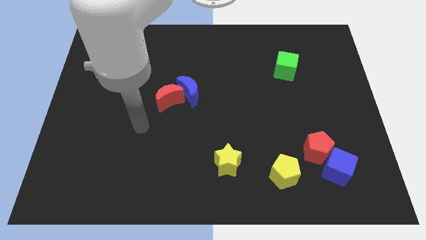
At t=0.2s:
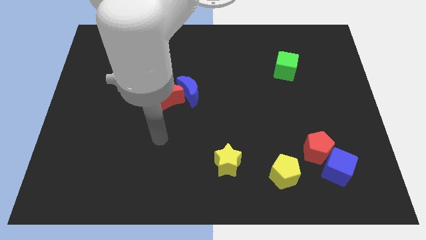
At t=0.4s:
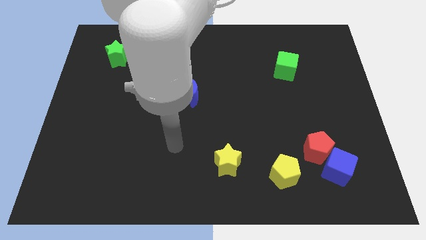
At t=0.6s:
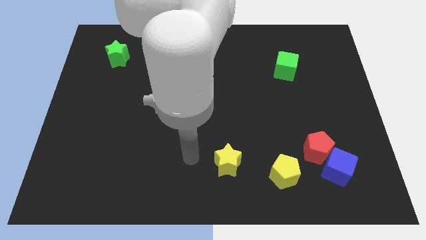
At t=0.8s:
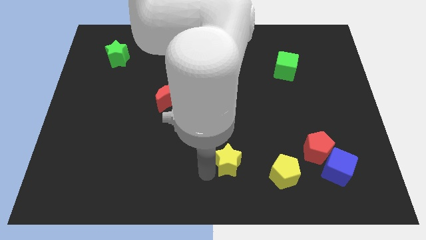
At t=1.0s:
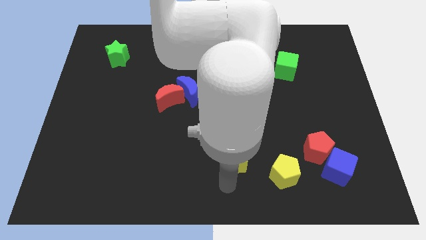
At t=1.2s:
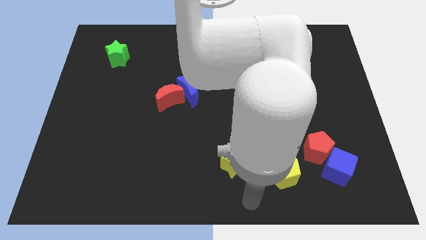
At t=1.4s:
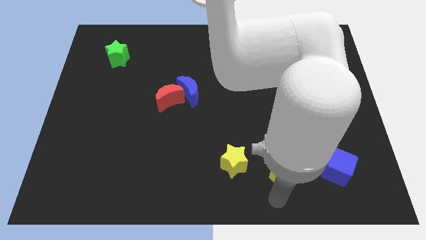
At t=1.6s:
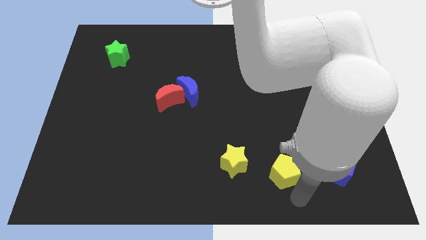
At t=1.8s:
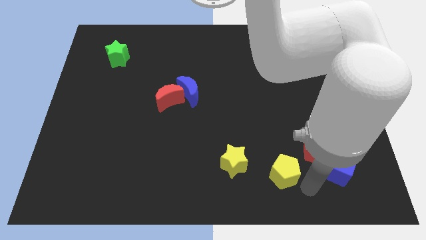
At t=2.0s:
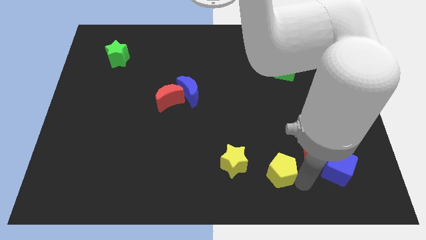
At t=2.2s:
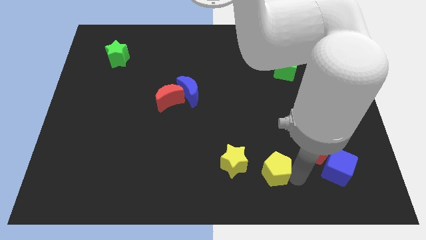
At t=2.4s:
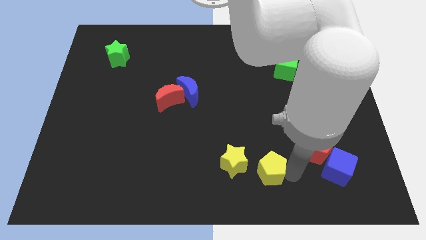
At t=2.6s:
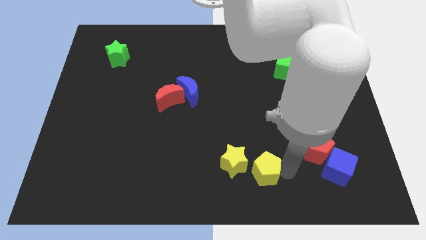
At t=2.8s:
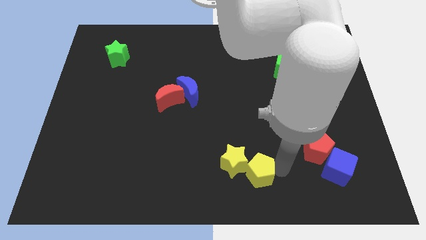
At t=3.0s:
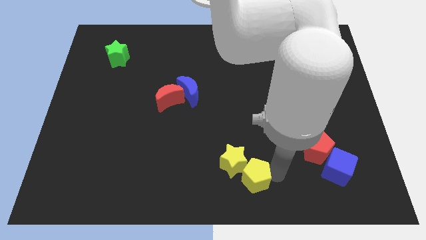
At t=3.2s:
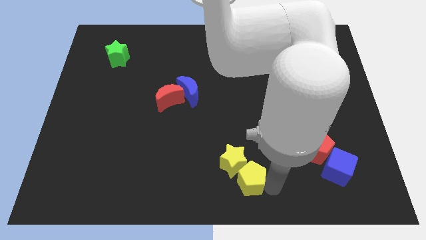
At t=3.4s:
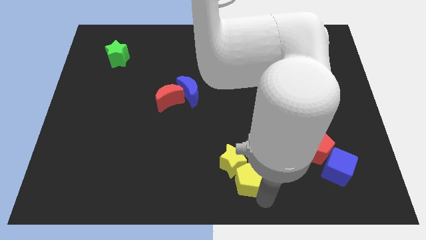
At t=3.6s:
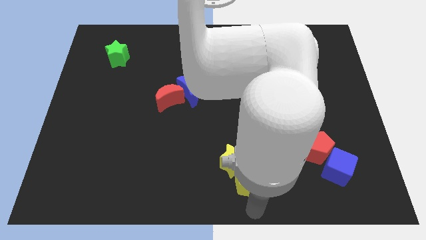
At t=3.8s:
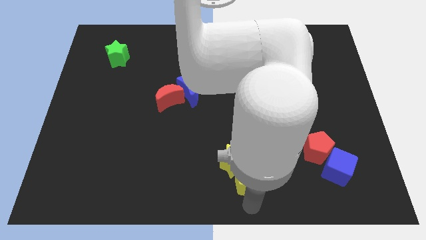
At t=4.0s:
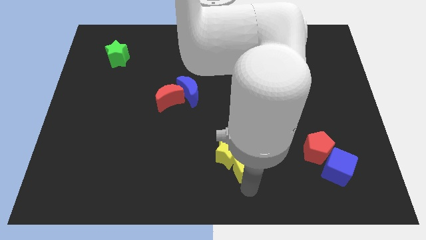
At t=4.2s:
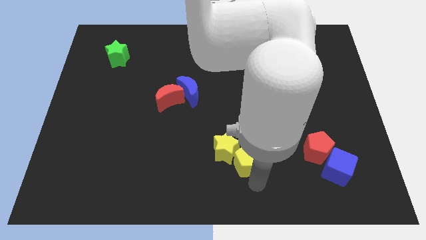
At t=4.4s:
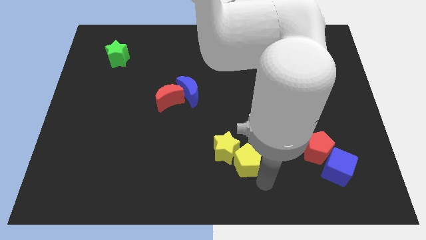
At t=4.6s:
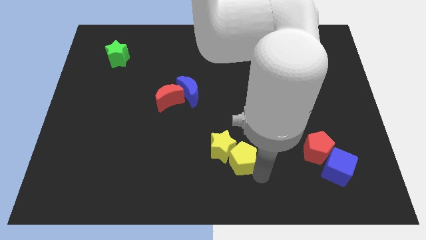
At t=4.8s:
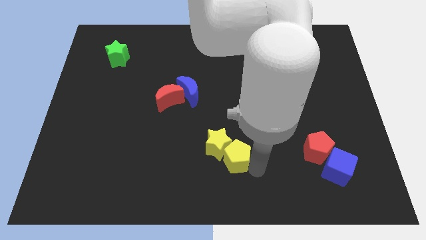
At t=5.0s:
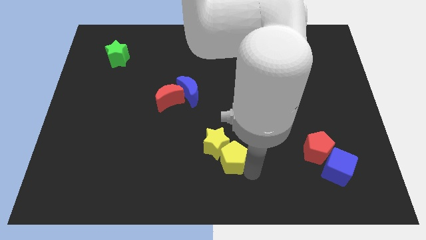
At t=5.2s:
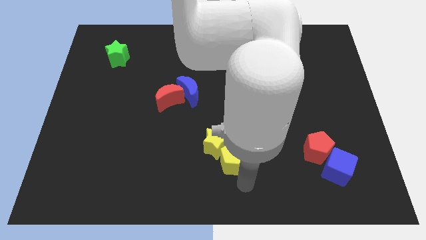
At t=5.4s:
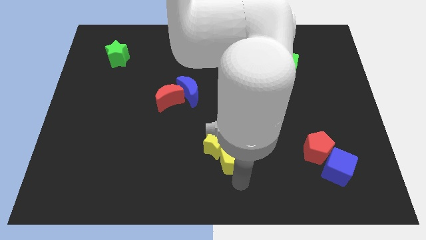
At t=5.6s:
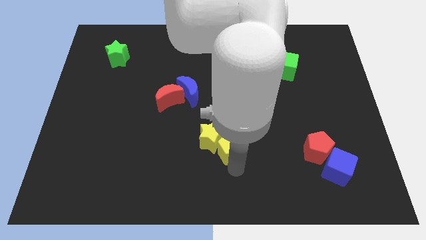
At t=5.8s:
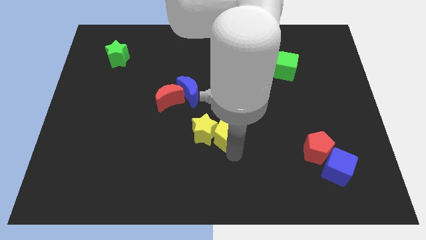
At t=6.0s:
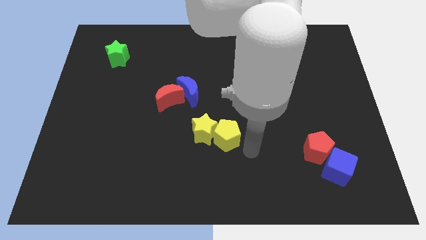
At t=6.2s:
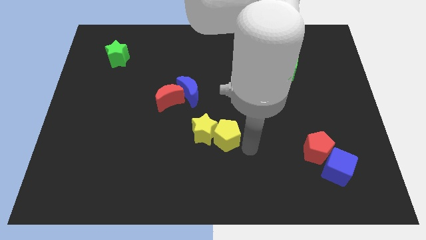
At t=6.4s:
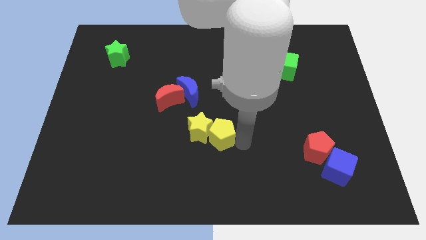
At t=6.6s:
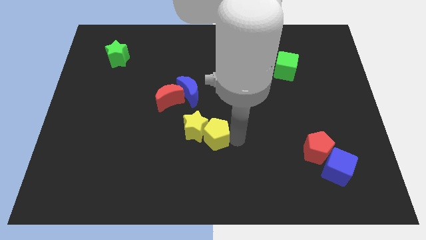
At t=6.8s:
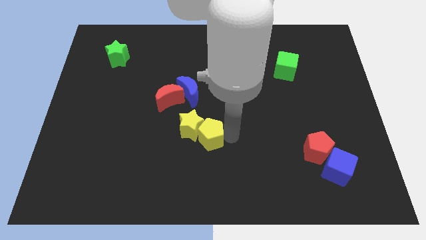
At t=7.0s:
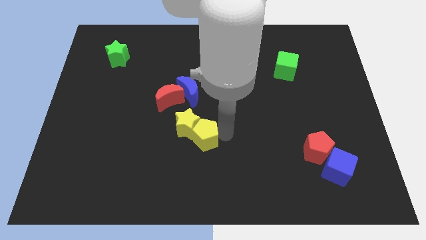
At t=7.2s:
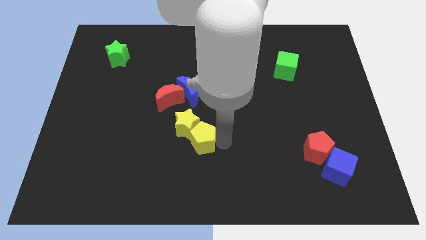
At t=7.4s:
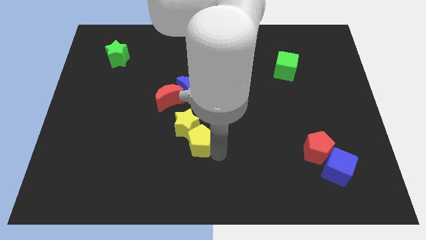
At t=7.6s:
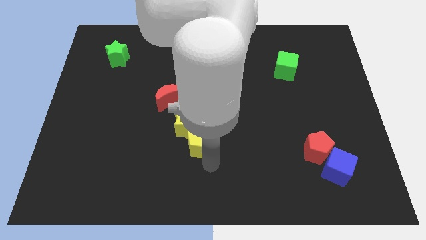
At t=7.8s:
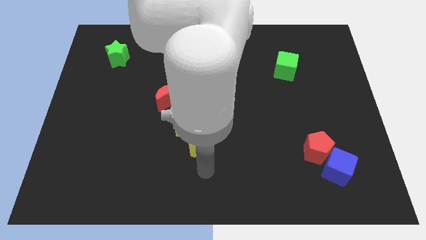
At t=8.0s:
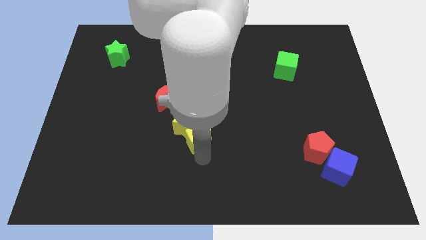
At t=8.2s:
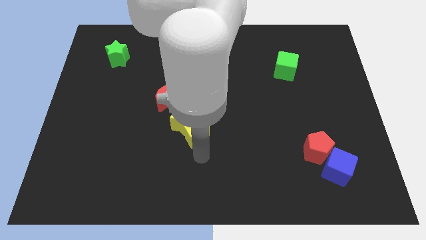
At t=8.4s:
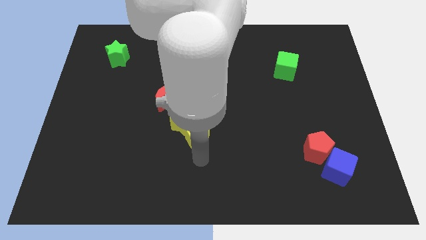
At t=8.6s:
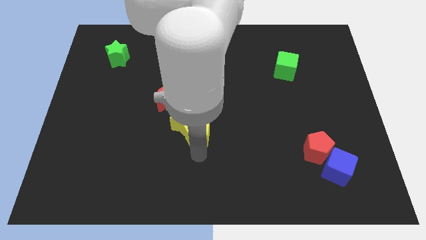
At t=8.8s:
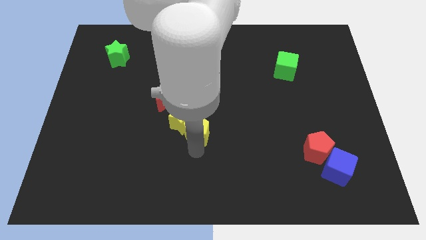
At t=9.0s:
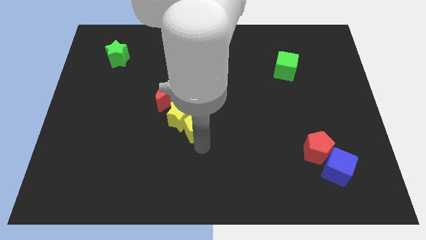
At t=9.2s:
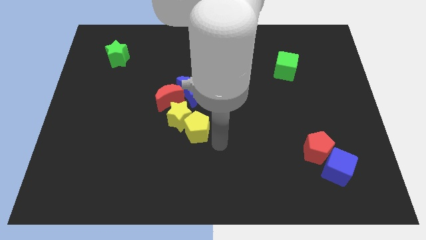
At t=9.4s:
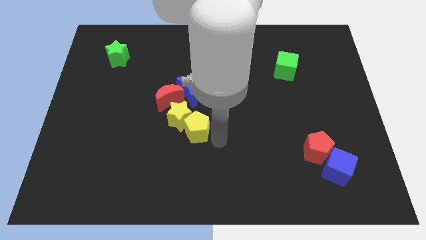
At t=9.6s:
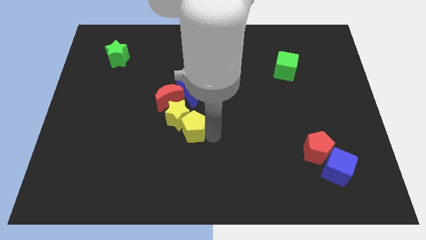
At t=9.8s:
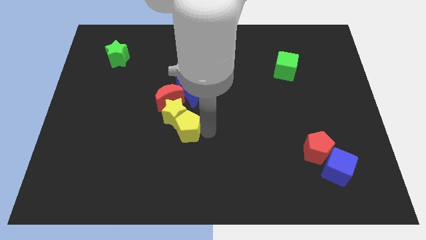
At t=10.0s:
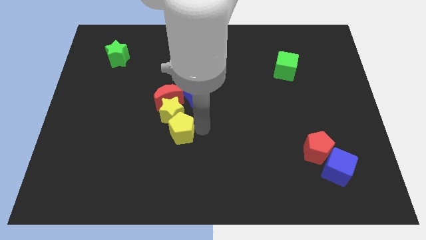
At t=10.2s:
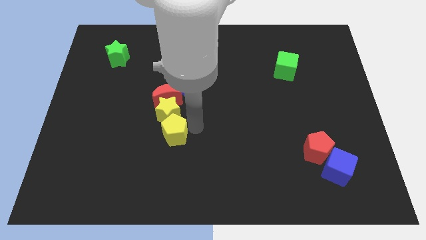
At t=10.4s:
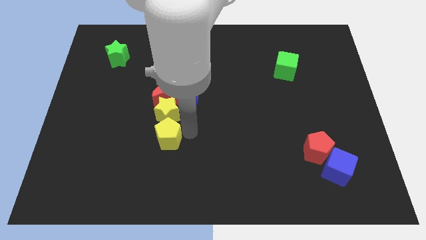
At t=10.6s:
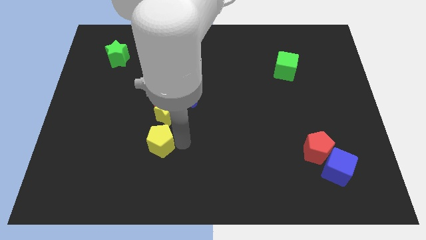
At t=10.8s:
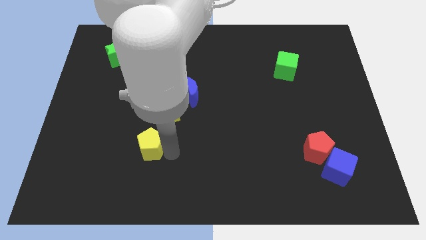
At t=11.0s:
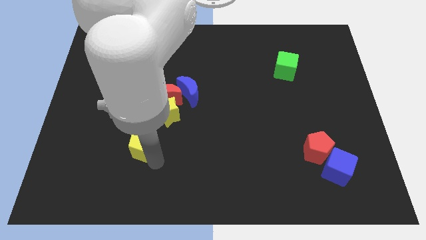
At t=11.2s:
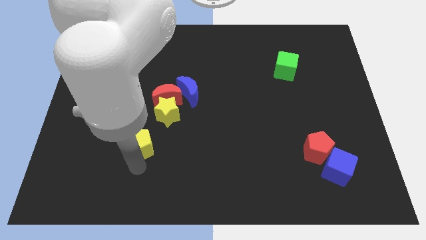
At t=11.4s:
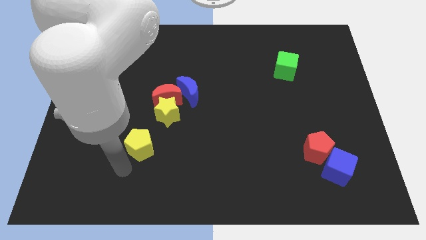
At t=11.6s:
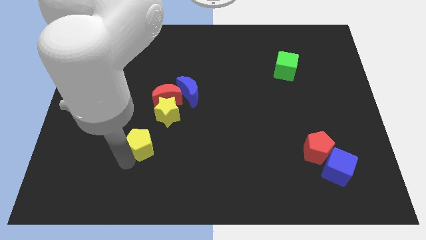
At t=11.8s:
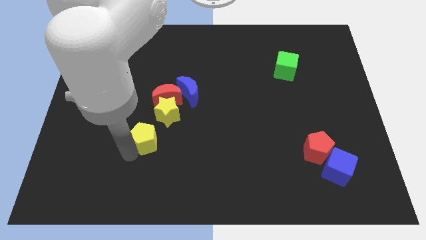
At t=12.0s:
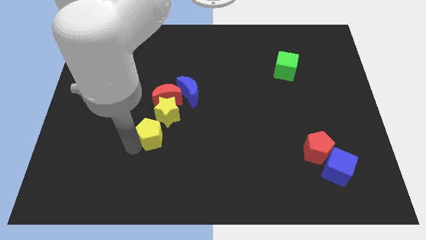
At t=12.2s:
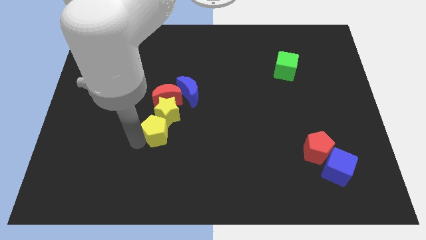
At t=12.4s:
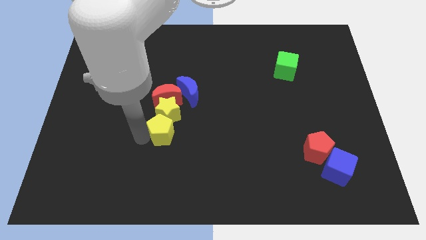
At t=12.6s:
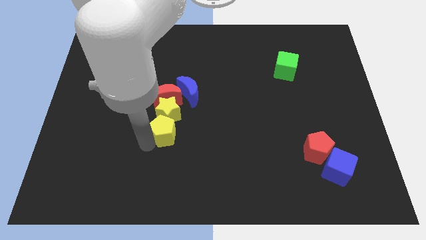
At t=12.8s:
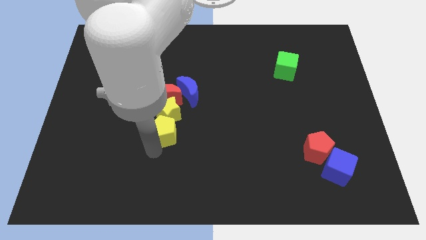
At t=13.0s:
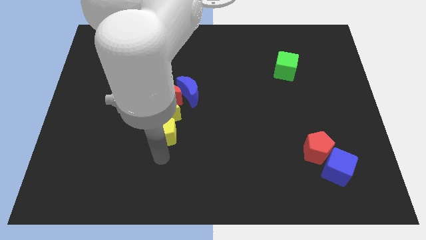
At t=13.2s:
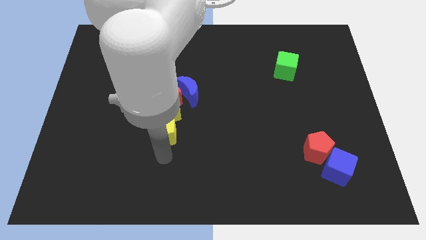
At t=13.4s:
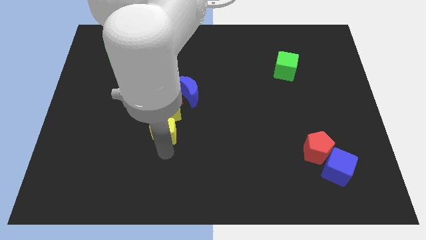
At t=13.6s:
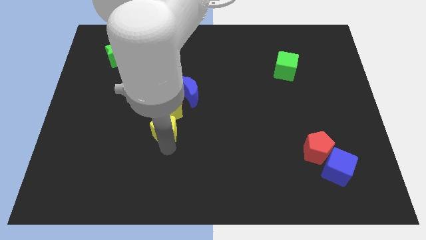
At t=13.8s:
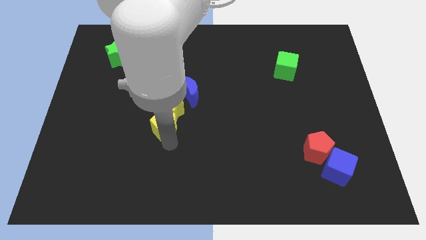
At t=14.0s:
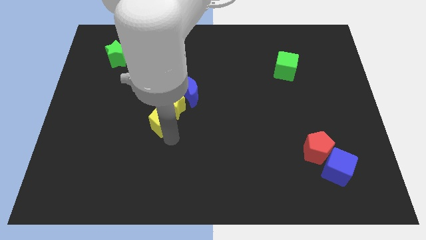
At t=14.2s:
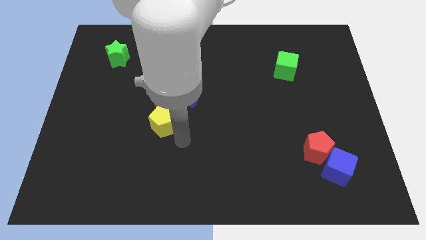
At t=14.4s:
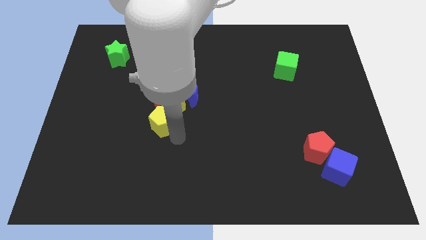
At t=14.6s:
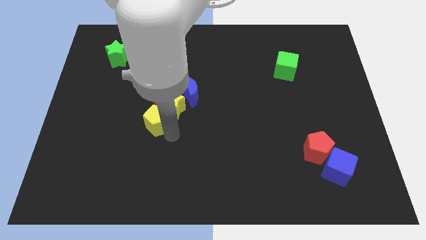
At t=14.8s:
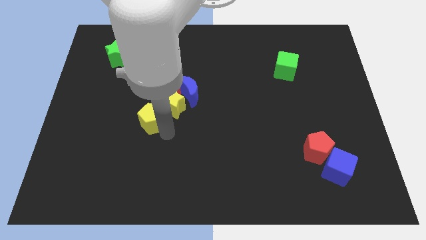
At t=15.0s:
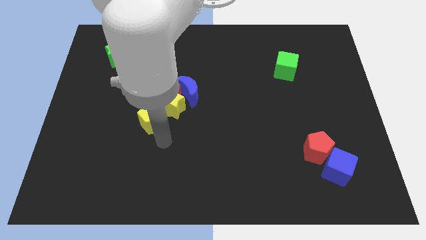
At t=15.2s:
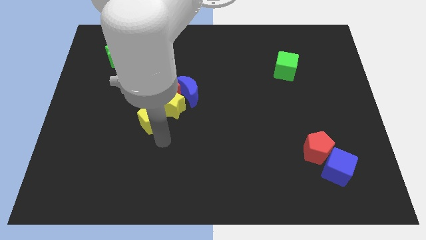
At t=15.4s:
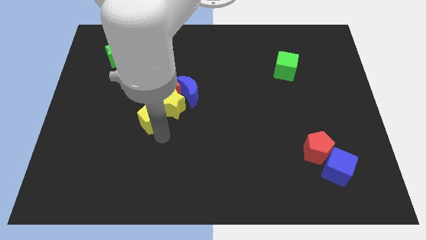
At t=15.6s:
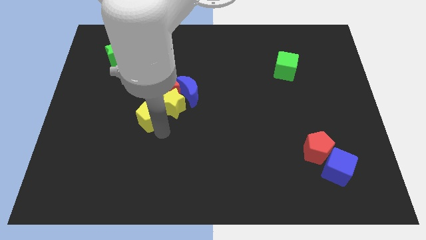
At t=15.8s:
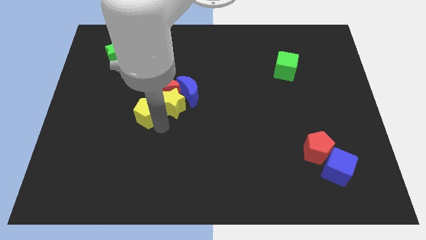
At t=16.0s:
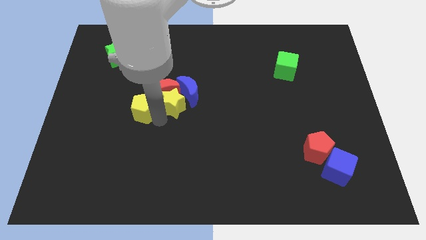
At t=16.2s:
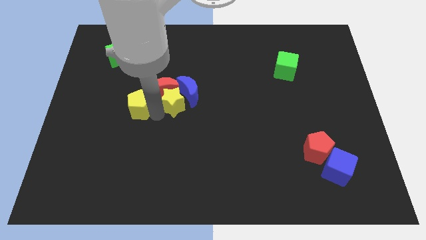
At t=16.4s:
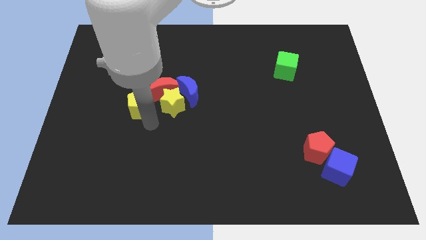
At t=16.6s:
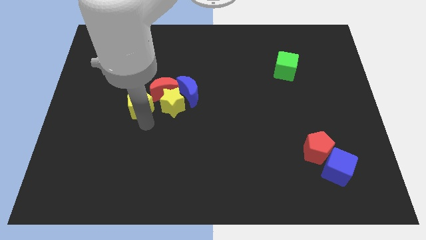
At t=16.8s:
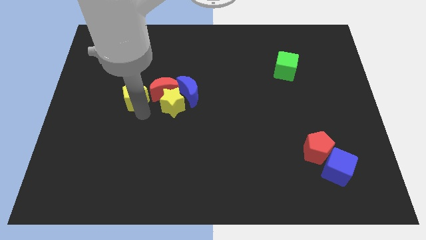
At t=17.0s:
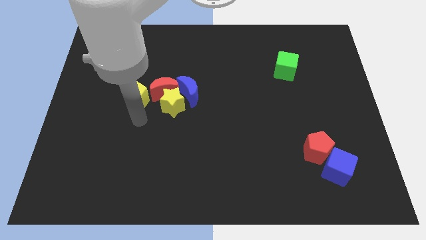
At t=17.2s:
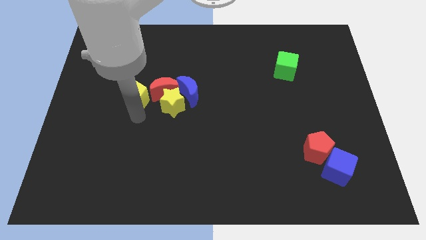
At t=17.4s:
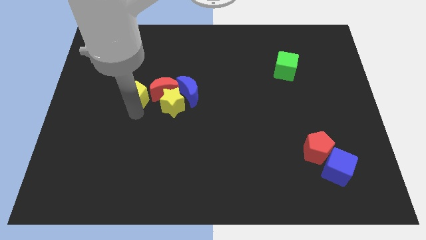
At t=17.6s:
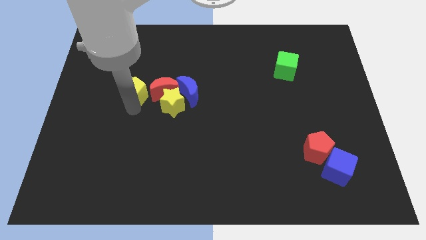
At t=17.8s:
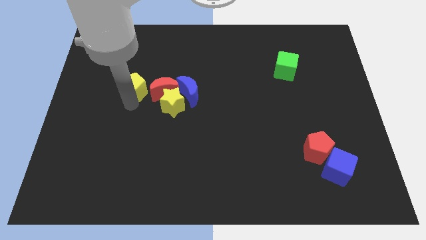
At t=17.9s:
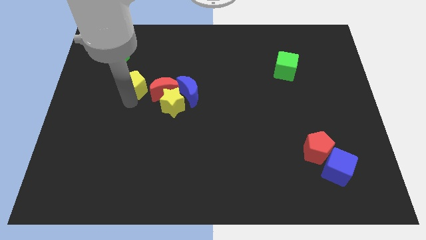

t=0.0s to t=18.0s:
push the yellow pentagon diagonally down and to the right of the green star
